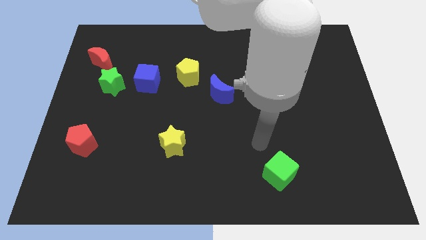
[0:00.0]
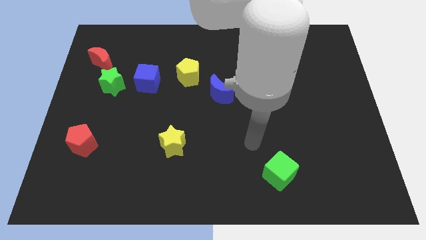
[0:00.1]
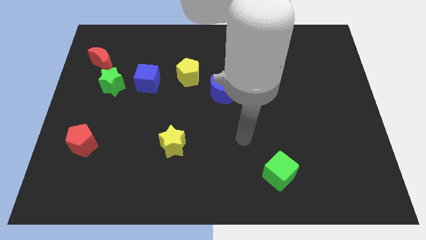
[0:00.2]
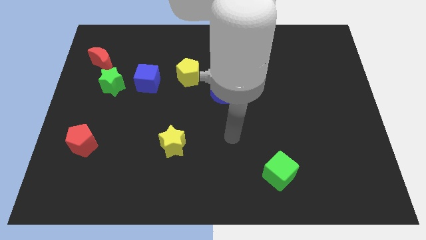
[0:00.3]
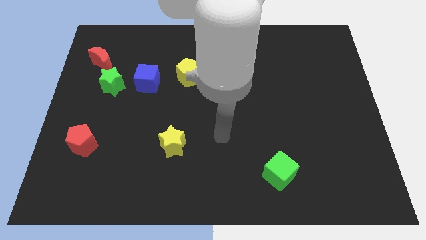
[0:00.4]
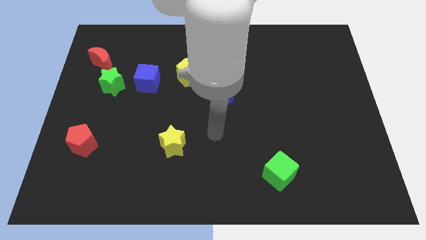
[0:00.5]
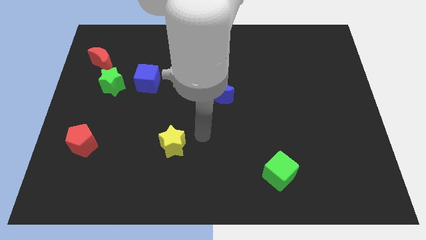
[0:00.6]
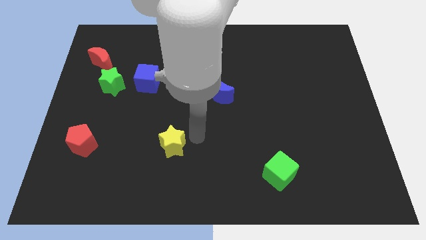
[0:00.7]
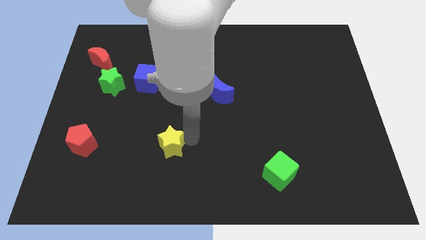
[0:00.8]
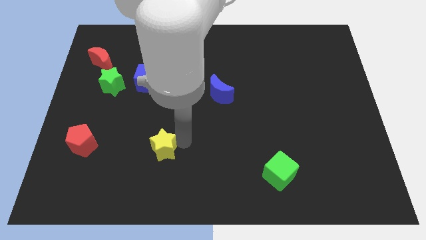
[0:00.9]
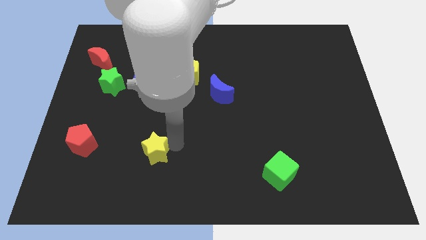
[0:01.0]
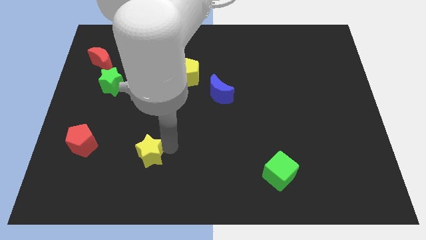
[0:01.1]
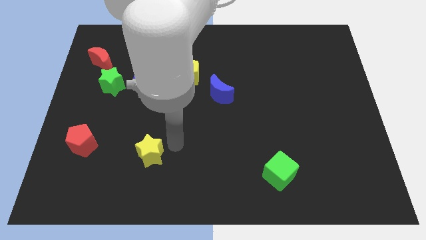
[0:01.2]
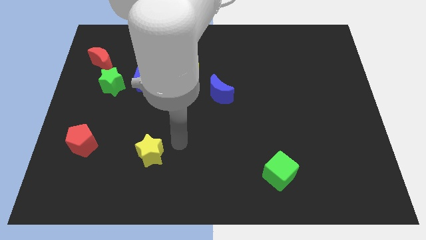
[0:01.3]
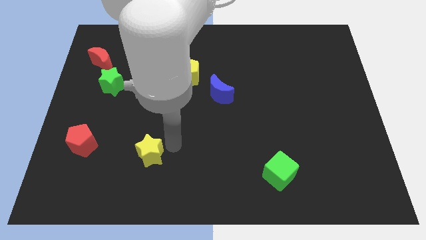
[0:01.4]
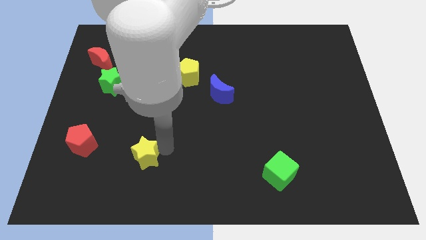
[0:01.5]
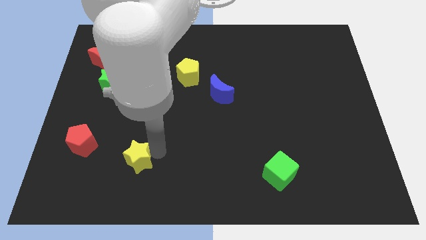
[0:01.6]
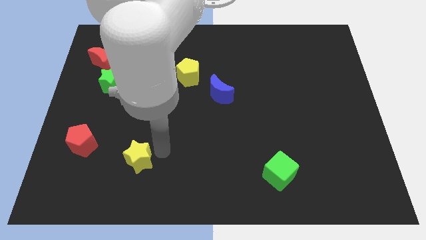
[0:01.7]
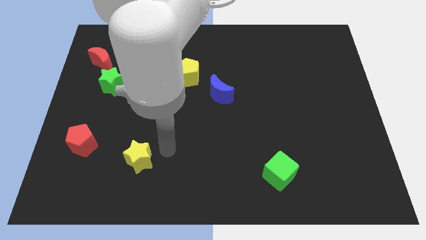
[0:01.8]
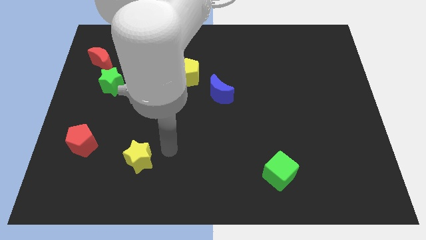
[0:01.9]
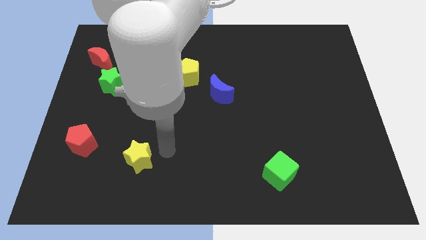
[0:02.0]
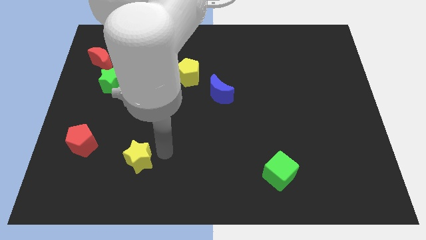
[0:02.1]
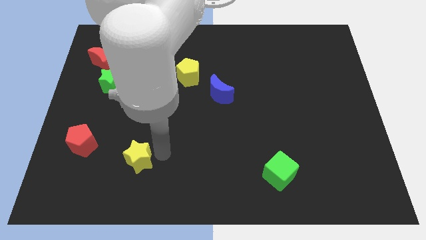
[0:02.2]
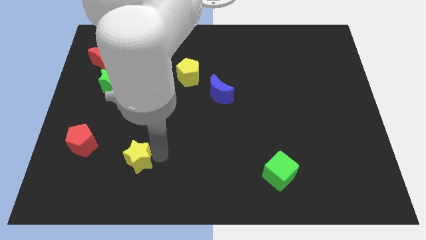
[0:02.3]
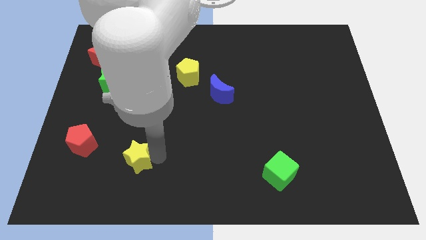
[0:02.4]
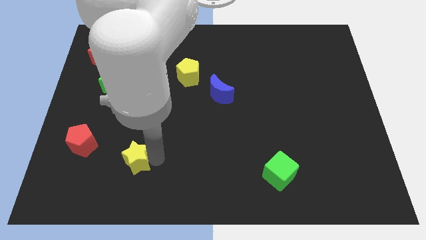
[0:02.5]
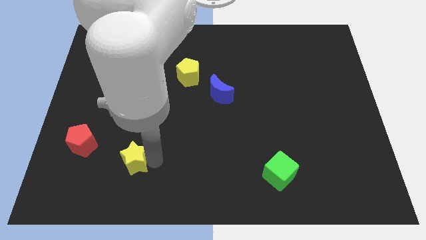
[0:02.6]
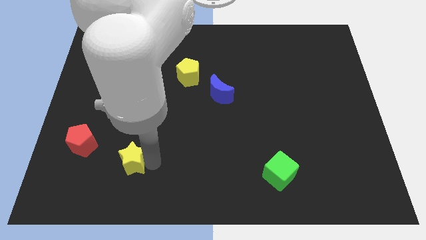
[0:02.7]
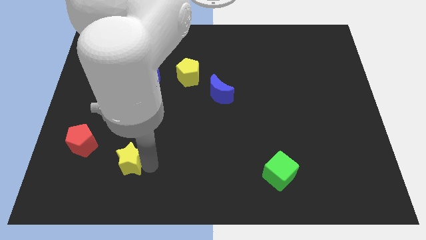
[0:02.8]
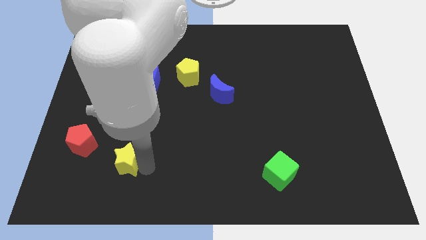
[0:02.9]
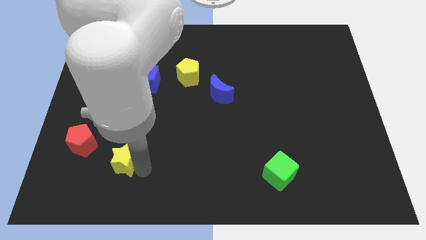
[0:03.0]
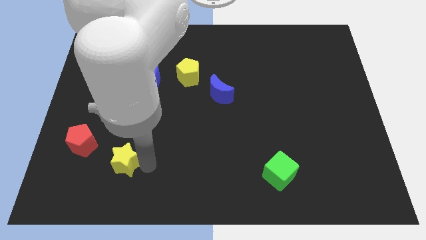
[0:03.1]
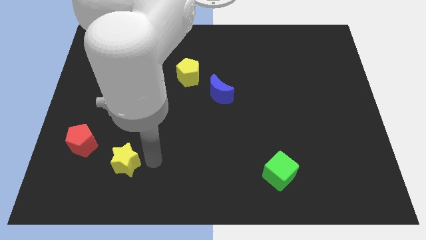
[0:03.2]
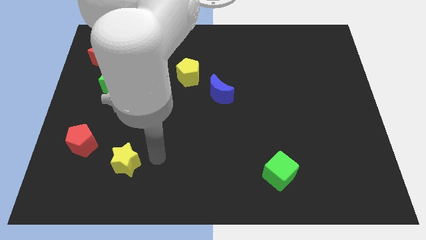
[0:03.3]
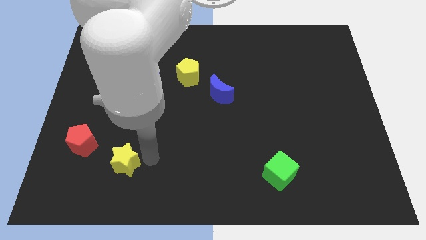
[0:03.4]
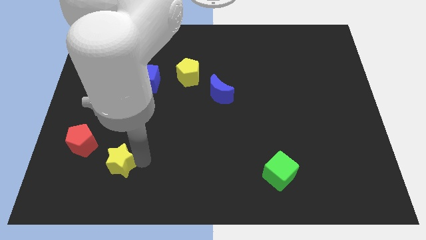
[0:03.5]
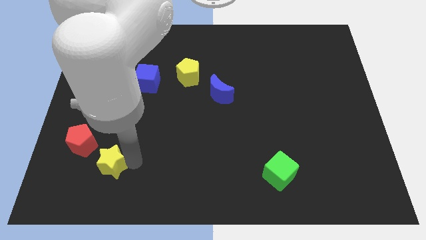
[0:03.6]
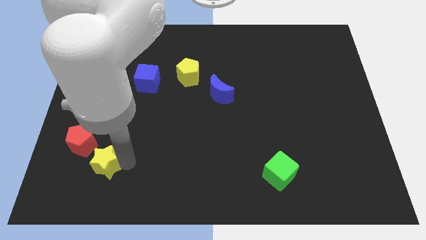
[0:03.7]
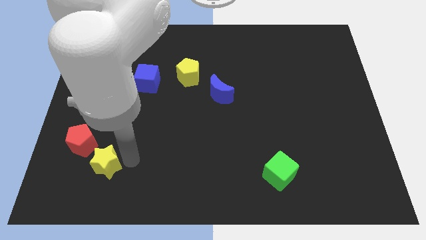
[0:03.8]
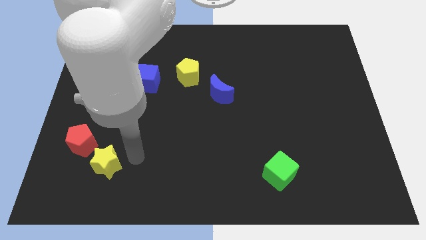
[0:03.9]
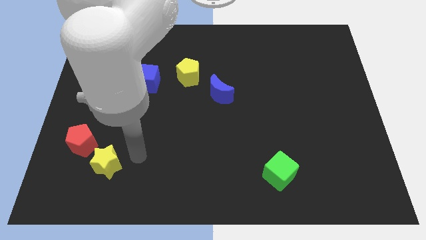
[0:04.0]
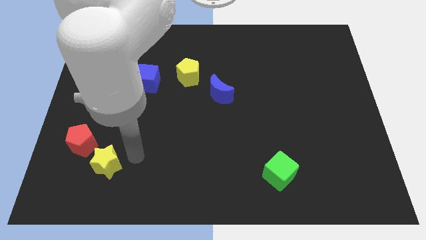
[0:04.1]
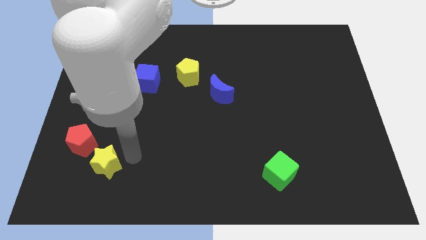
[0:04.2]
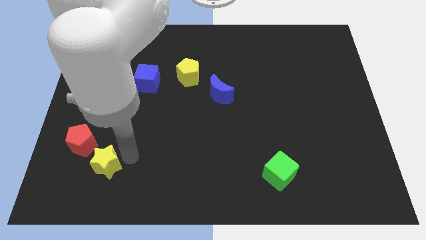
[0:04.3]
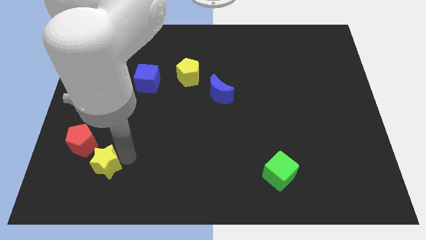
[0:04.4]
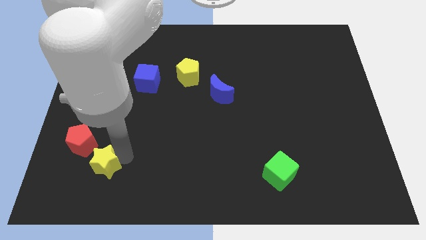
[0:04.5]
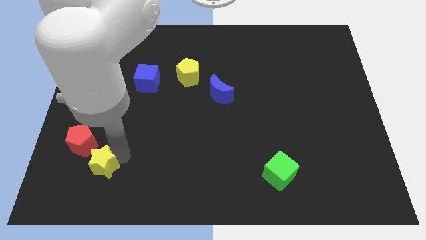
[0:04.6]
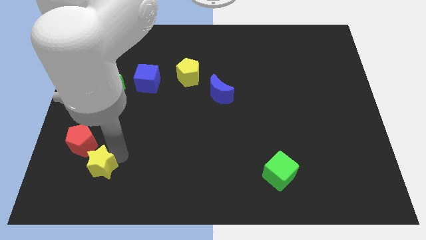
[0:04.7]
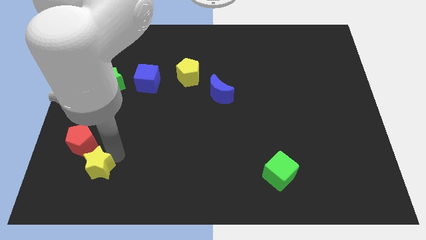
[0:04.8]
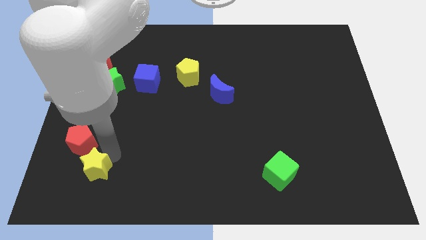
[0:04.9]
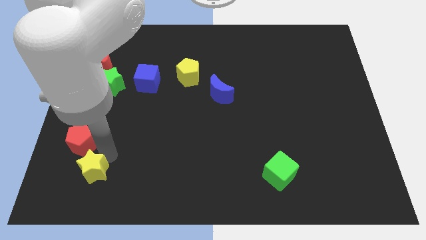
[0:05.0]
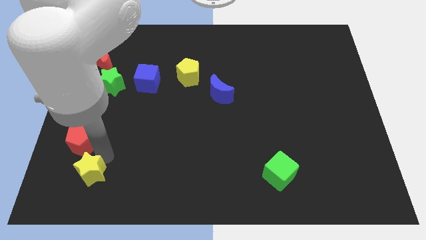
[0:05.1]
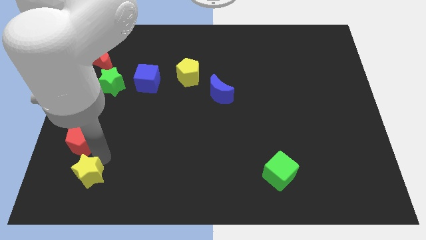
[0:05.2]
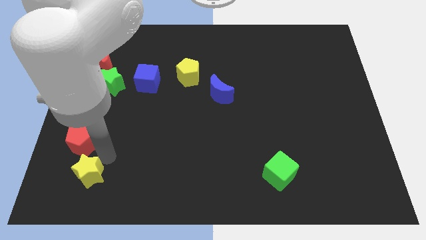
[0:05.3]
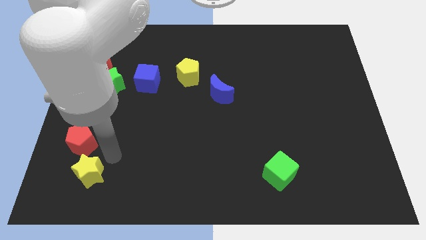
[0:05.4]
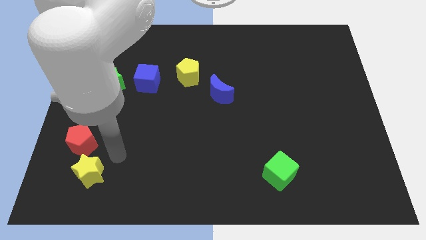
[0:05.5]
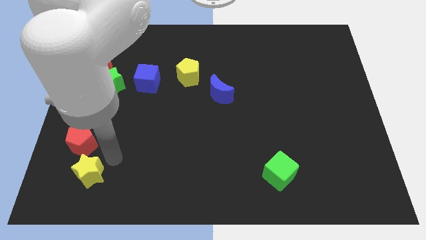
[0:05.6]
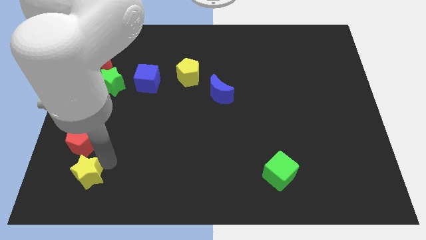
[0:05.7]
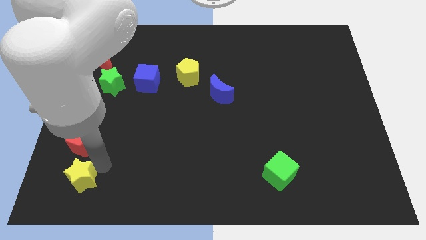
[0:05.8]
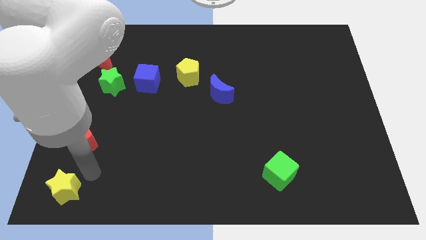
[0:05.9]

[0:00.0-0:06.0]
move the yellow star to the bottom left of the board
